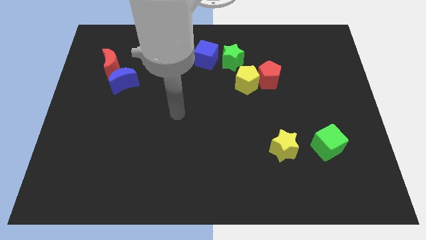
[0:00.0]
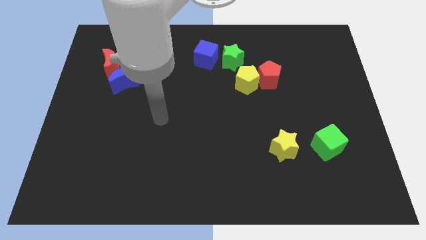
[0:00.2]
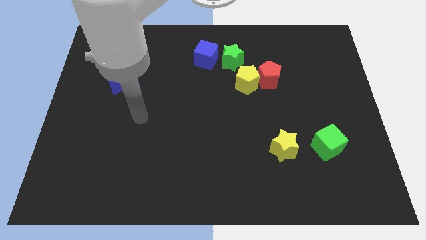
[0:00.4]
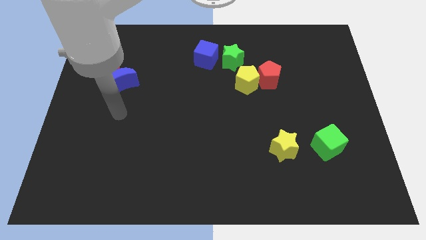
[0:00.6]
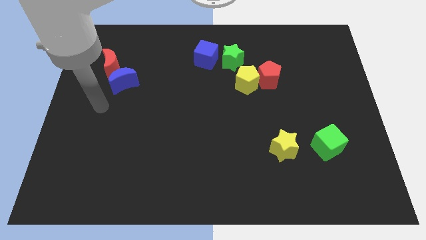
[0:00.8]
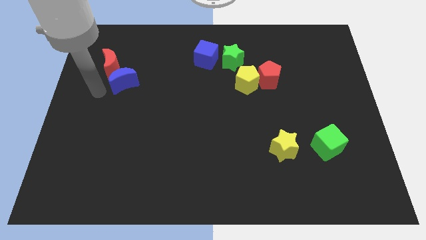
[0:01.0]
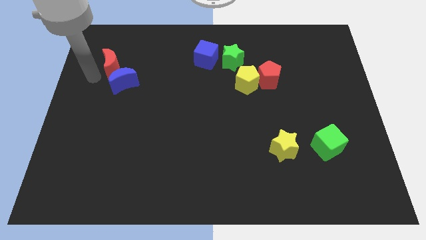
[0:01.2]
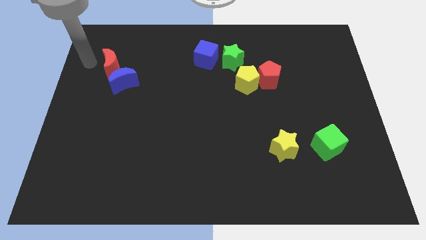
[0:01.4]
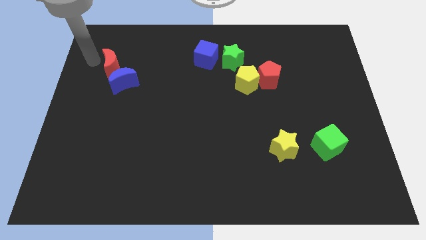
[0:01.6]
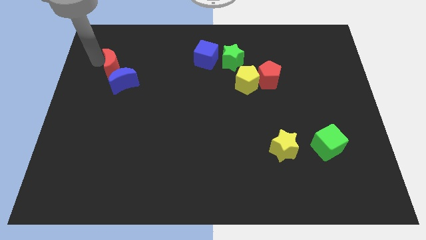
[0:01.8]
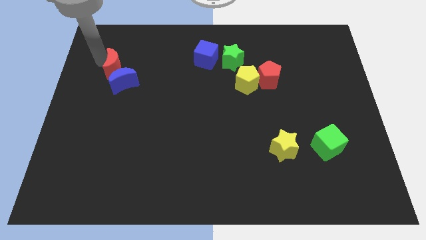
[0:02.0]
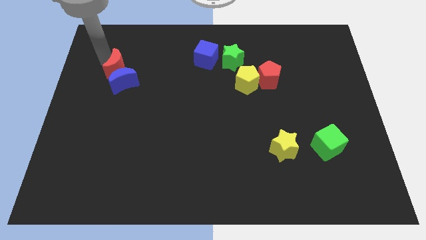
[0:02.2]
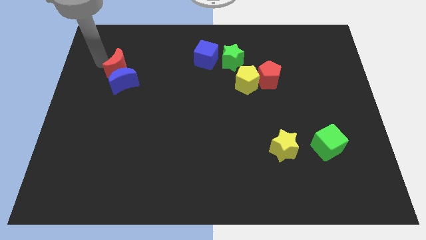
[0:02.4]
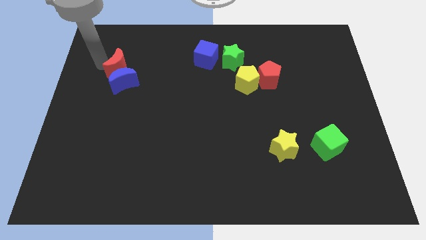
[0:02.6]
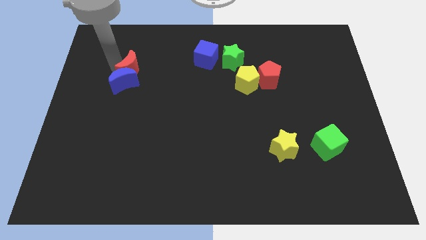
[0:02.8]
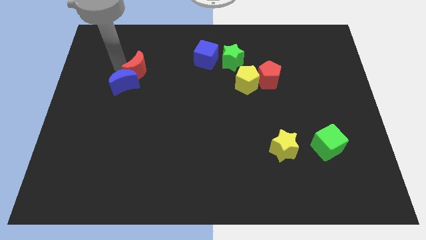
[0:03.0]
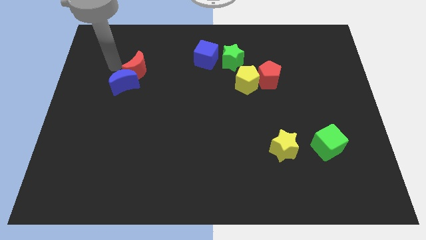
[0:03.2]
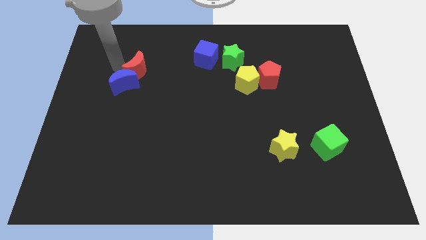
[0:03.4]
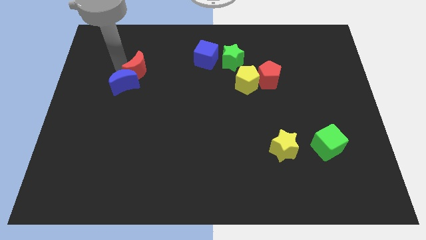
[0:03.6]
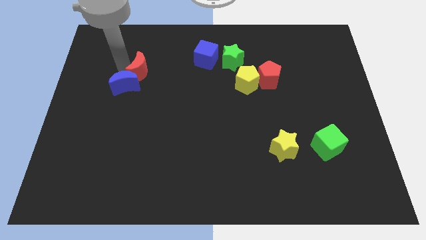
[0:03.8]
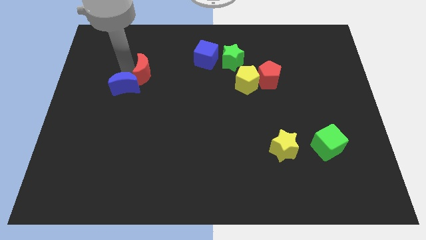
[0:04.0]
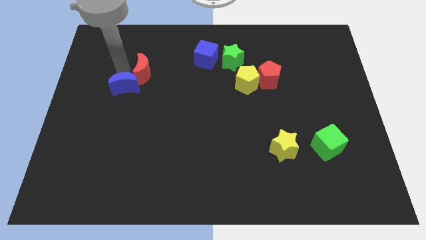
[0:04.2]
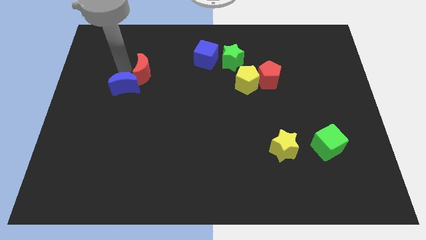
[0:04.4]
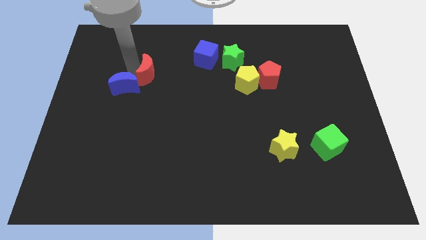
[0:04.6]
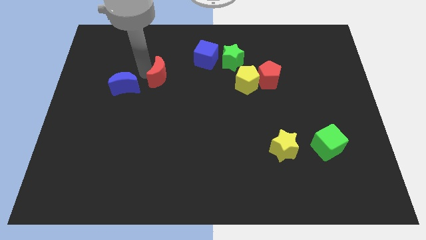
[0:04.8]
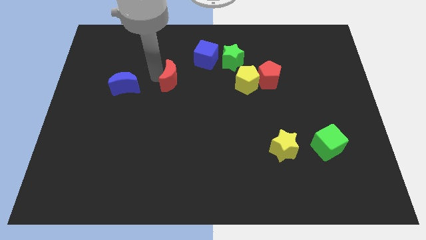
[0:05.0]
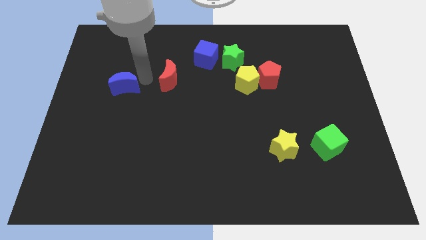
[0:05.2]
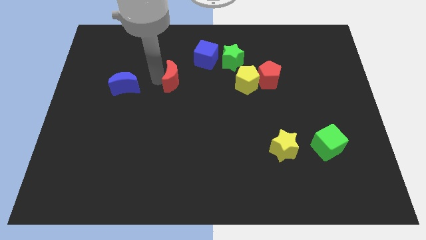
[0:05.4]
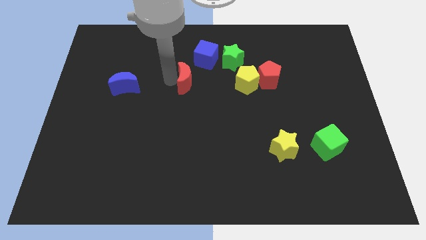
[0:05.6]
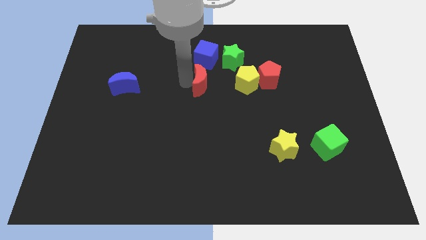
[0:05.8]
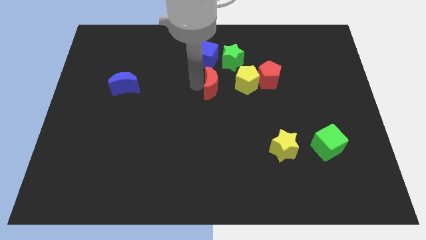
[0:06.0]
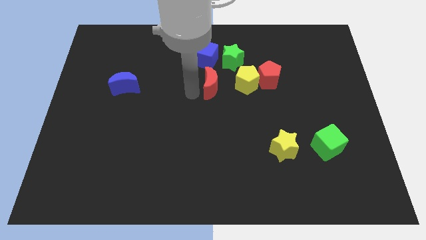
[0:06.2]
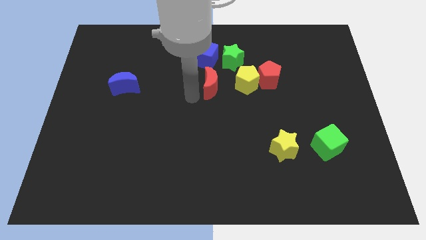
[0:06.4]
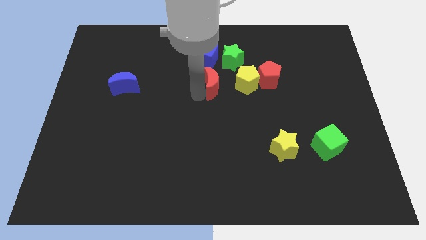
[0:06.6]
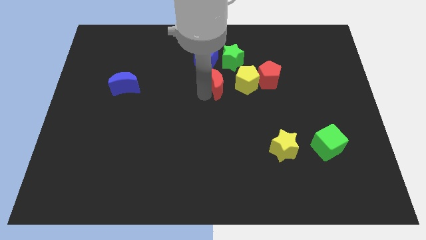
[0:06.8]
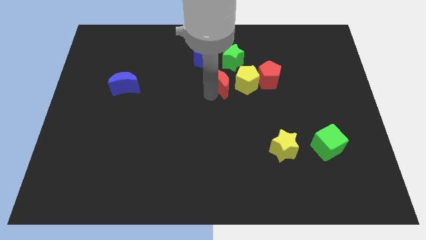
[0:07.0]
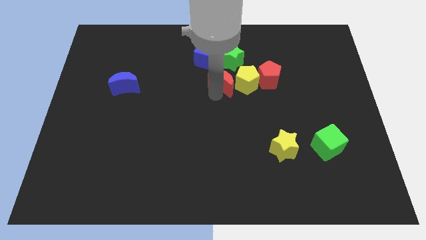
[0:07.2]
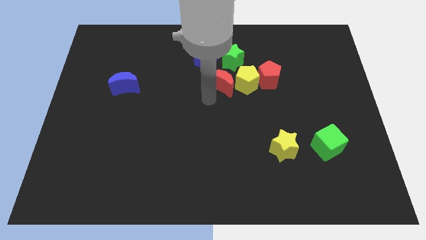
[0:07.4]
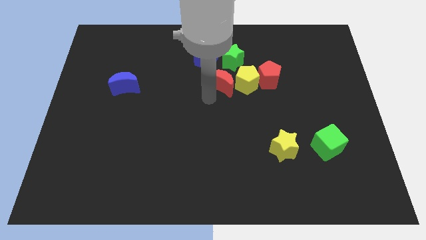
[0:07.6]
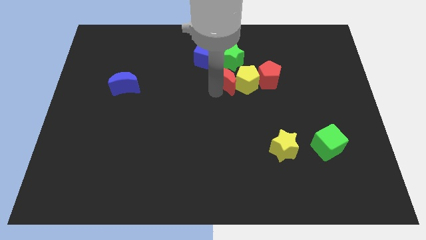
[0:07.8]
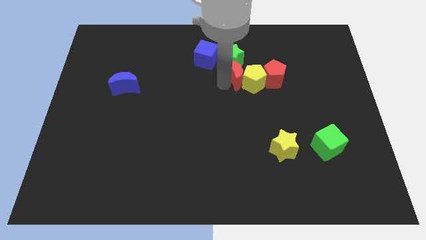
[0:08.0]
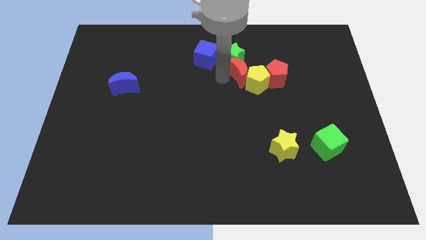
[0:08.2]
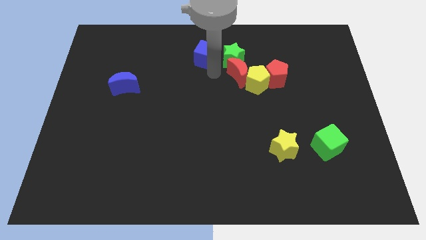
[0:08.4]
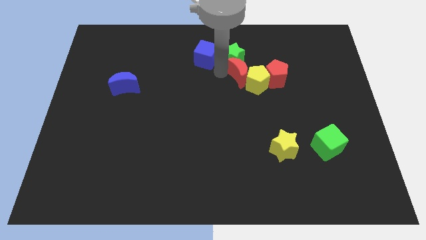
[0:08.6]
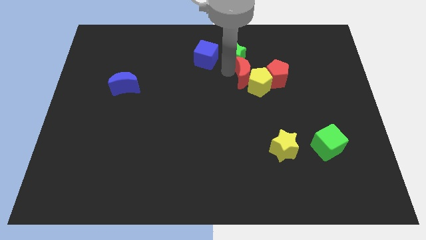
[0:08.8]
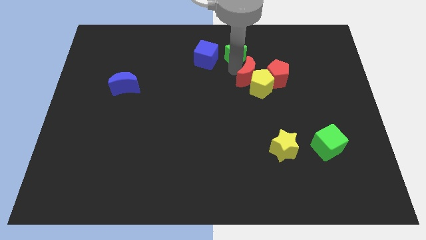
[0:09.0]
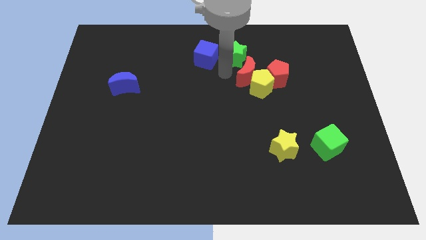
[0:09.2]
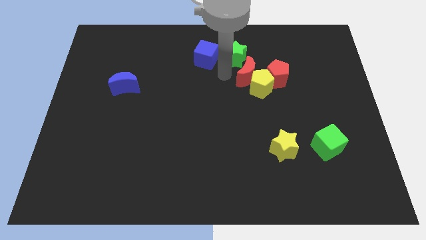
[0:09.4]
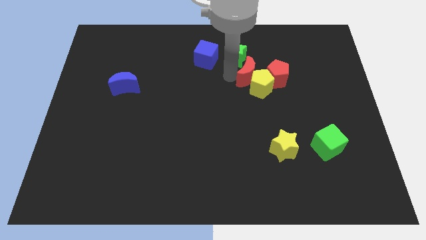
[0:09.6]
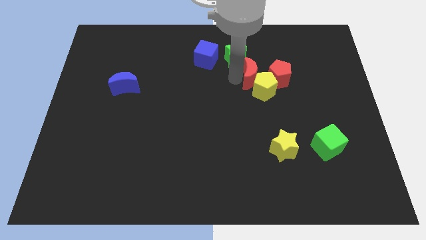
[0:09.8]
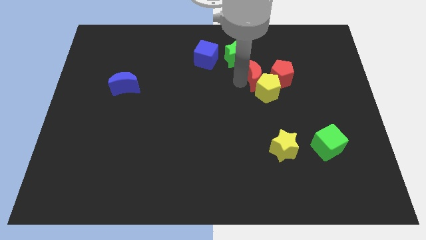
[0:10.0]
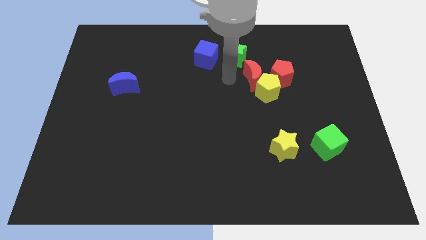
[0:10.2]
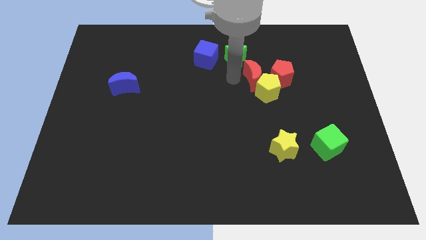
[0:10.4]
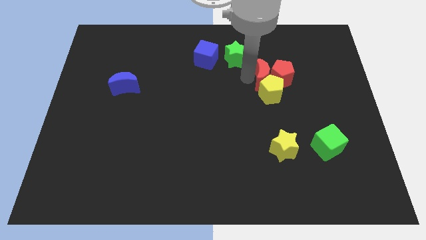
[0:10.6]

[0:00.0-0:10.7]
move the red moon next to the red pentagon

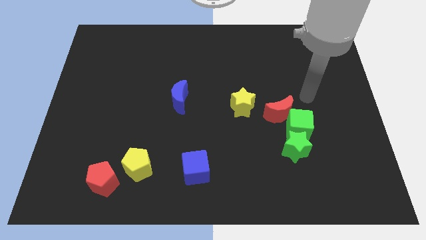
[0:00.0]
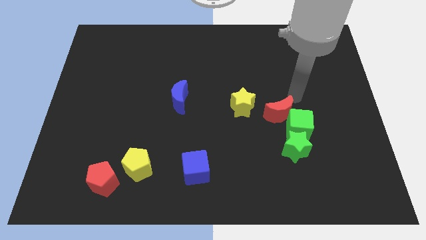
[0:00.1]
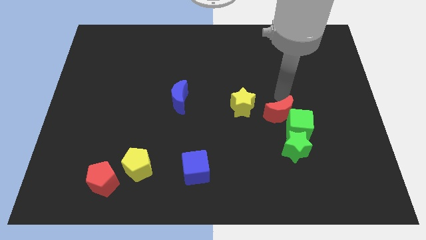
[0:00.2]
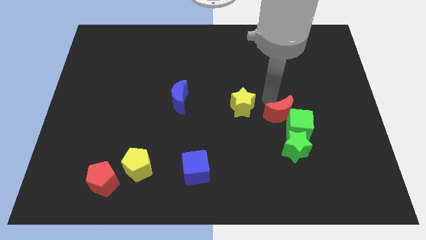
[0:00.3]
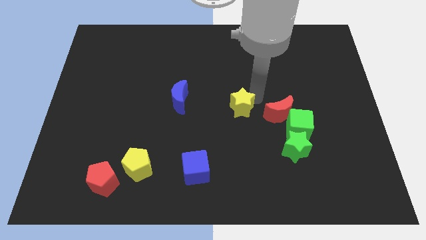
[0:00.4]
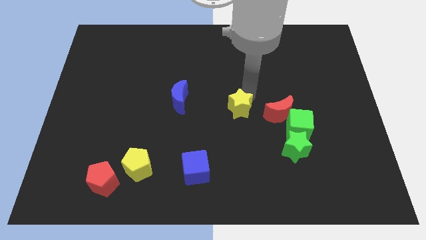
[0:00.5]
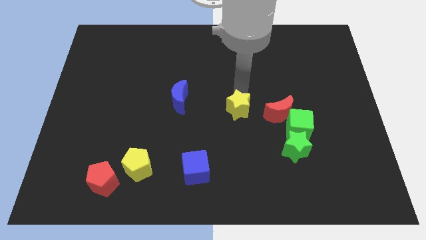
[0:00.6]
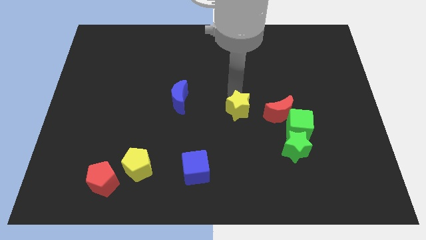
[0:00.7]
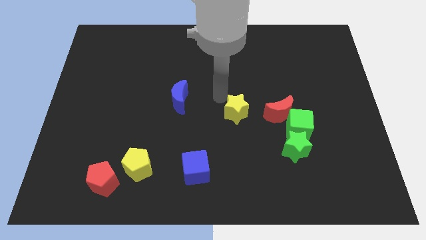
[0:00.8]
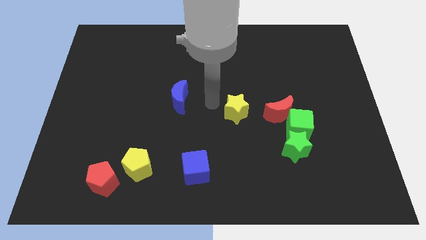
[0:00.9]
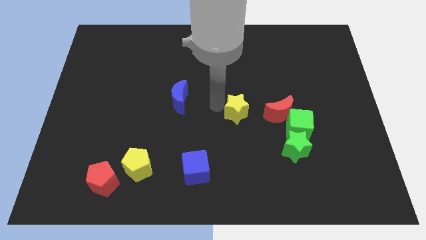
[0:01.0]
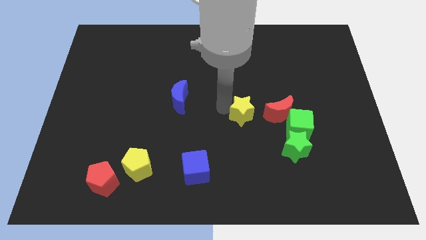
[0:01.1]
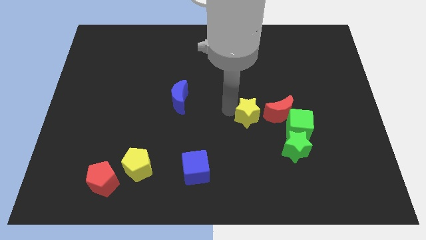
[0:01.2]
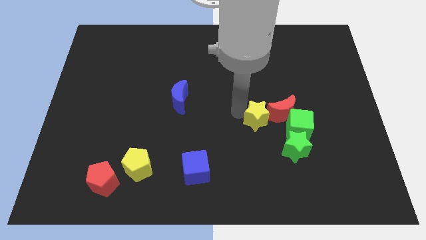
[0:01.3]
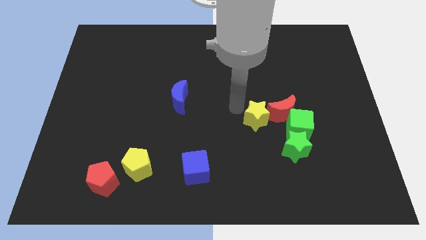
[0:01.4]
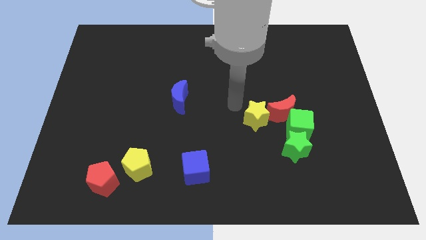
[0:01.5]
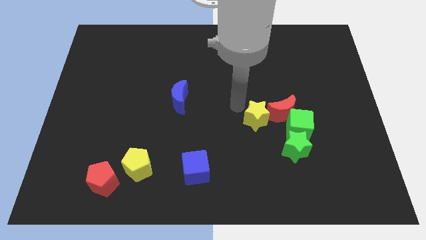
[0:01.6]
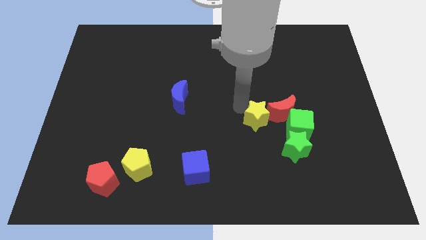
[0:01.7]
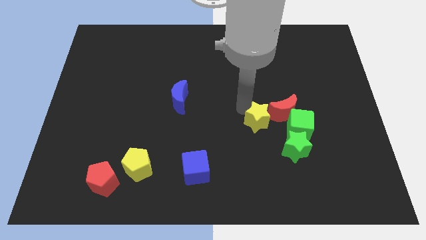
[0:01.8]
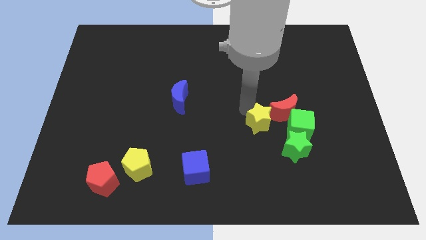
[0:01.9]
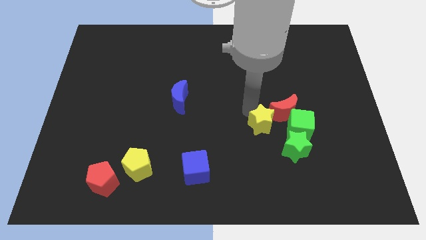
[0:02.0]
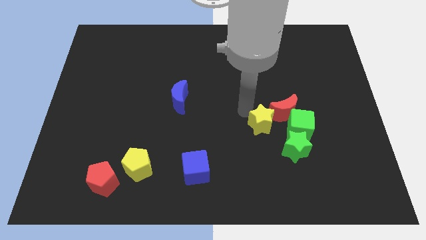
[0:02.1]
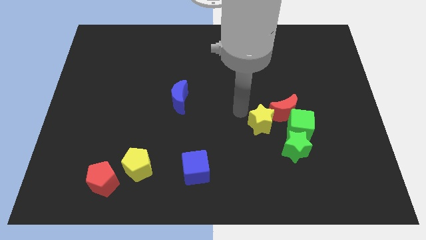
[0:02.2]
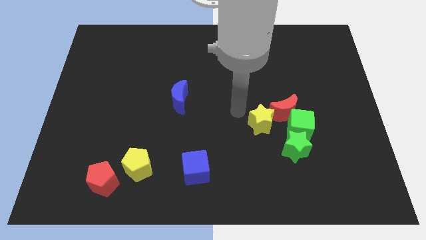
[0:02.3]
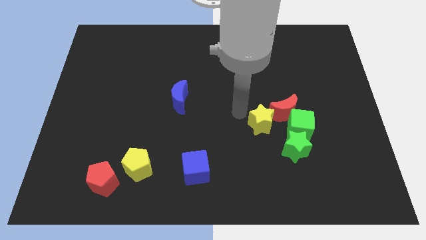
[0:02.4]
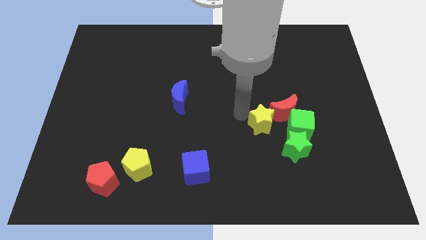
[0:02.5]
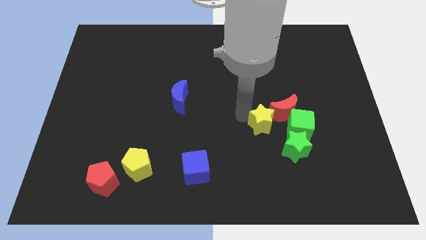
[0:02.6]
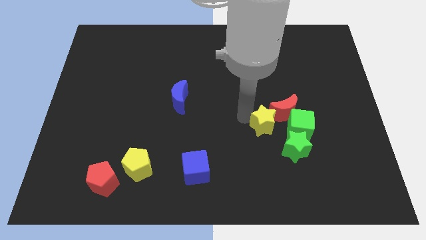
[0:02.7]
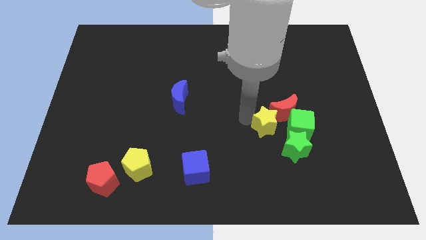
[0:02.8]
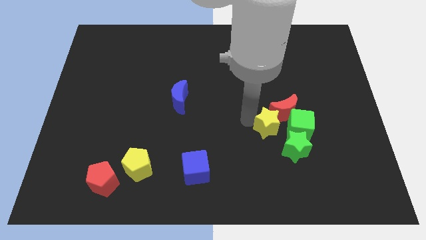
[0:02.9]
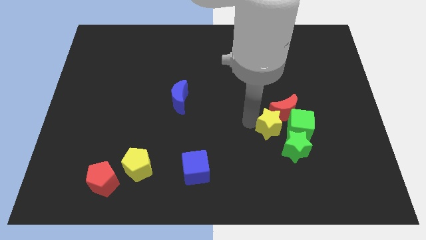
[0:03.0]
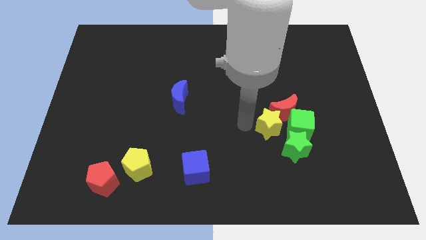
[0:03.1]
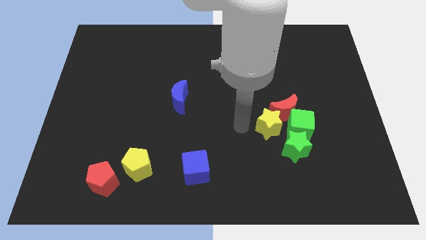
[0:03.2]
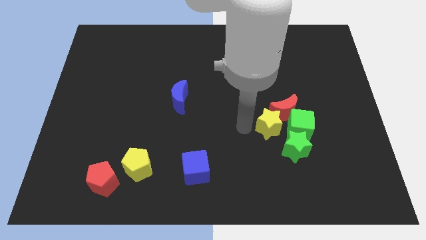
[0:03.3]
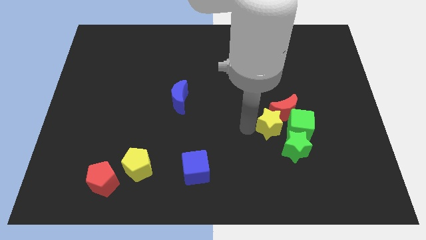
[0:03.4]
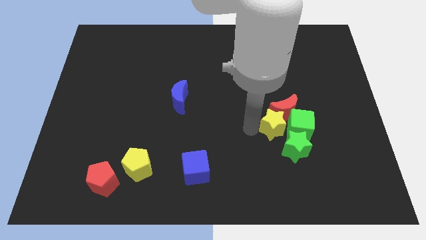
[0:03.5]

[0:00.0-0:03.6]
move the yellow star close to the green cube
